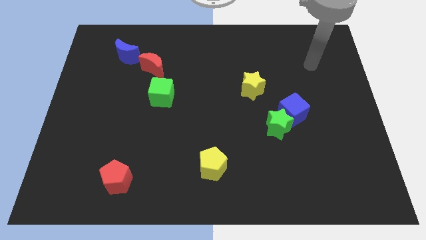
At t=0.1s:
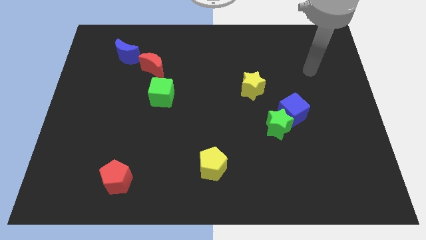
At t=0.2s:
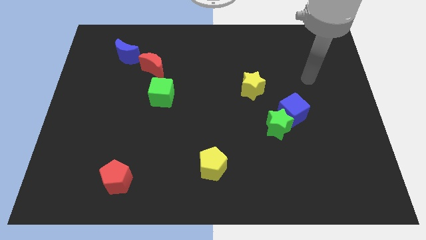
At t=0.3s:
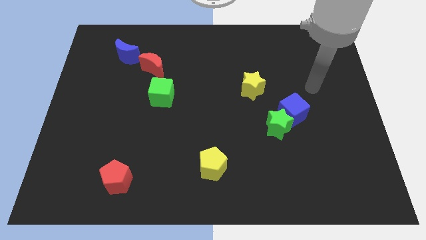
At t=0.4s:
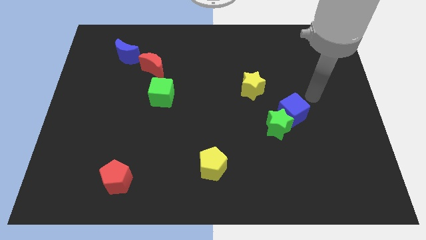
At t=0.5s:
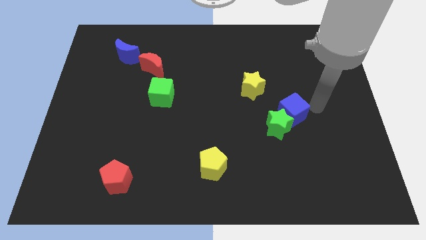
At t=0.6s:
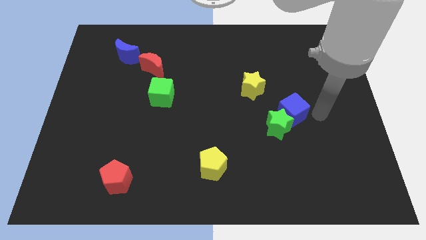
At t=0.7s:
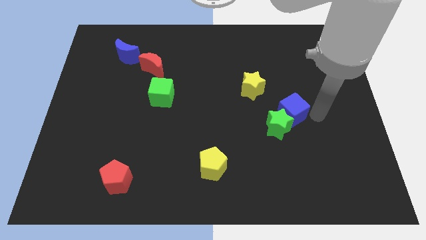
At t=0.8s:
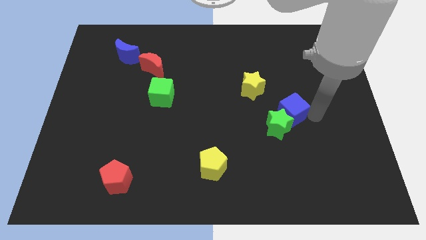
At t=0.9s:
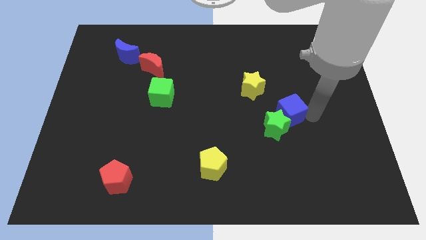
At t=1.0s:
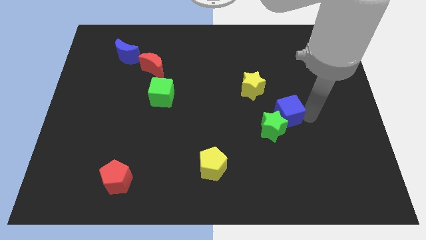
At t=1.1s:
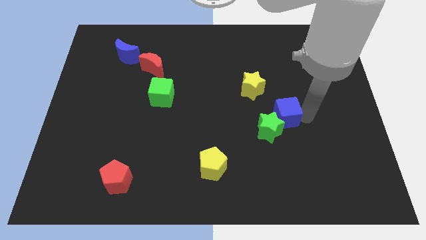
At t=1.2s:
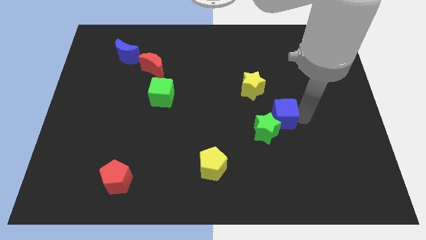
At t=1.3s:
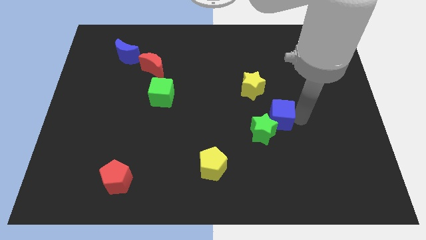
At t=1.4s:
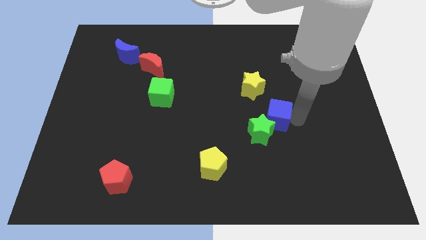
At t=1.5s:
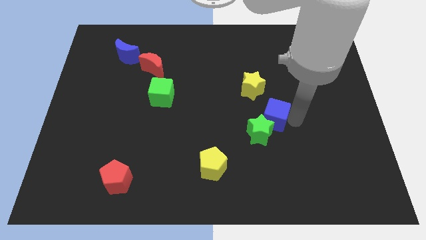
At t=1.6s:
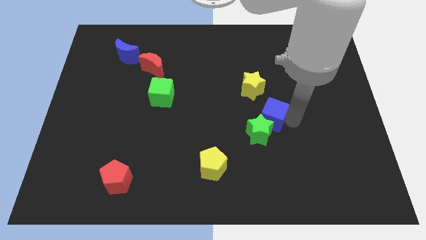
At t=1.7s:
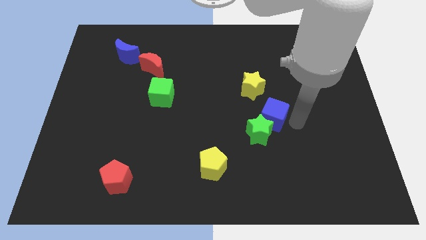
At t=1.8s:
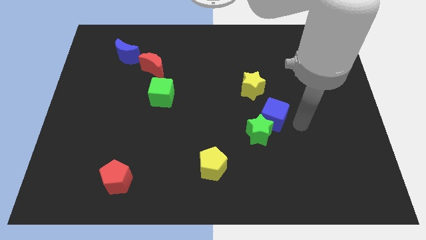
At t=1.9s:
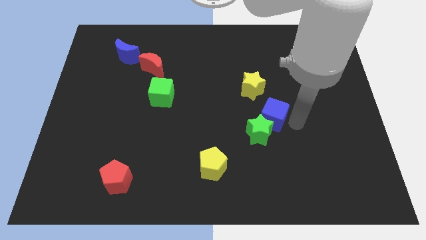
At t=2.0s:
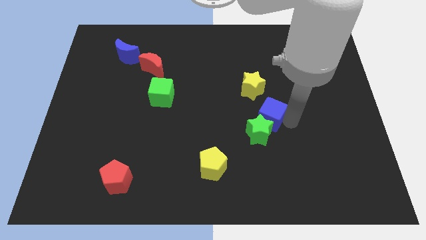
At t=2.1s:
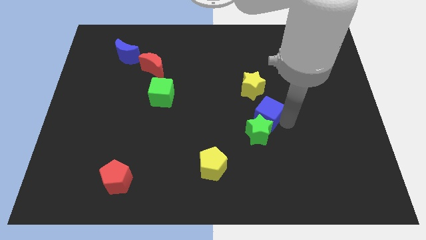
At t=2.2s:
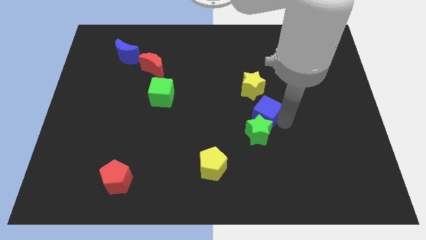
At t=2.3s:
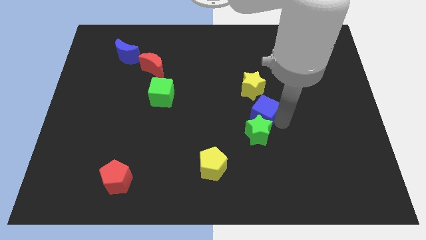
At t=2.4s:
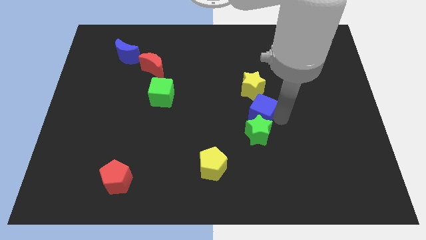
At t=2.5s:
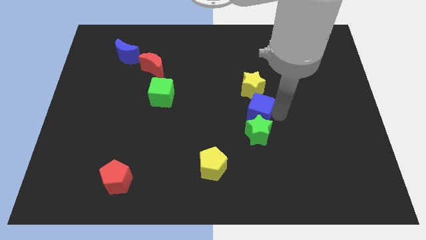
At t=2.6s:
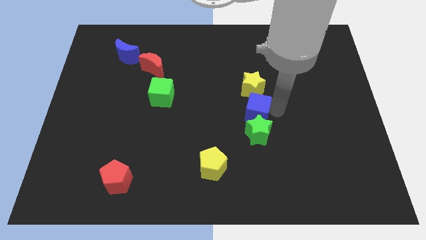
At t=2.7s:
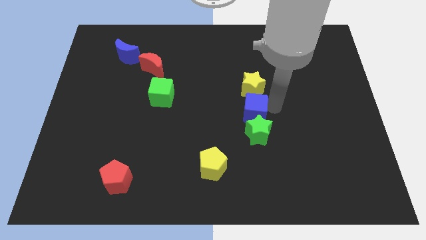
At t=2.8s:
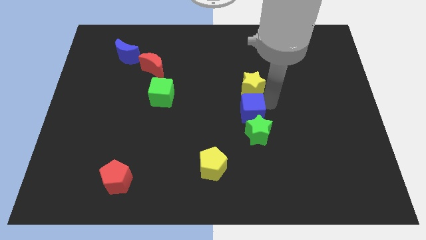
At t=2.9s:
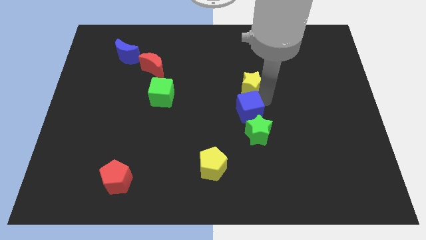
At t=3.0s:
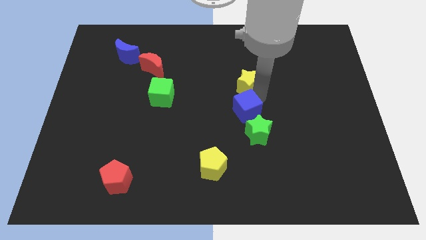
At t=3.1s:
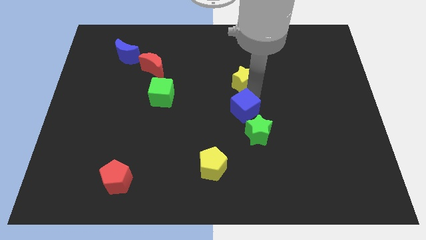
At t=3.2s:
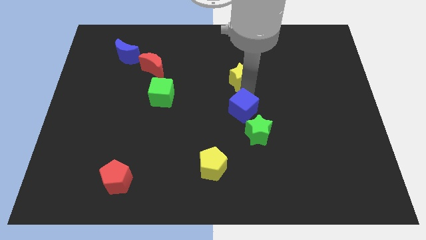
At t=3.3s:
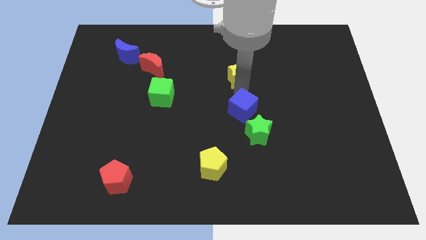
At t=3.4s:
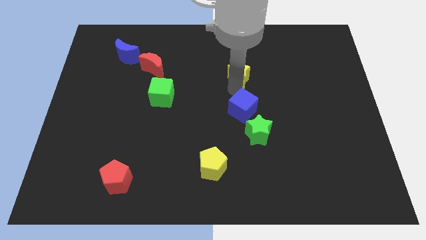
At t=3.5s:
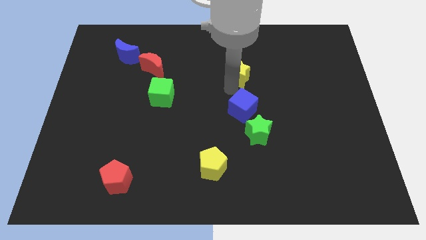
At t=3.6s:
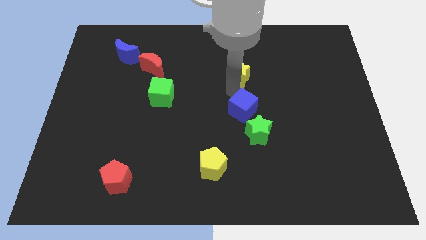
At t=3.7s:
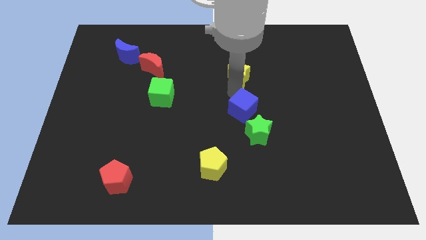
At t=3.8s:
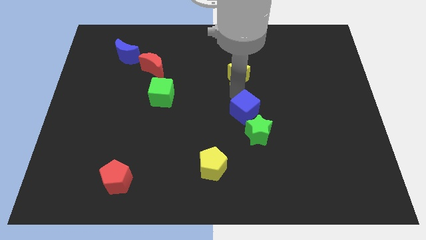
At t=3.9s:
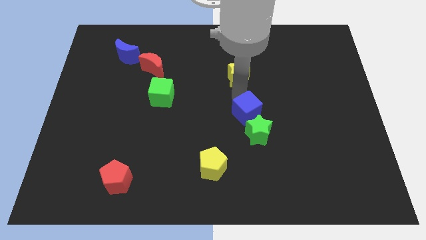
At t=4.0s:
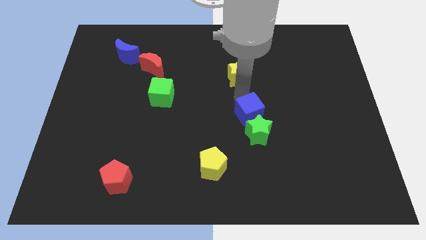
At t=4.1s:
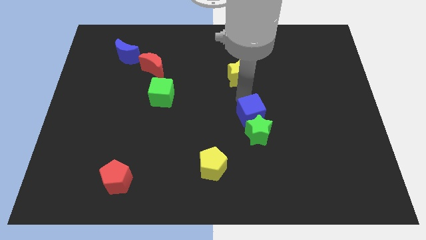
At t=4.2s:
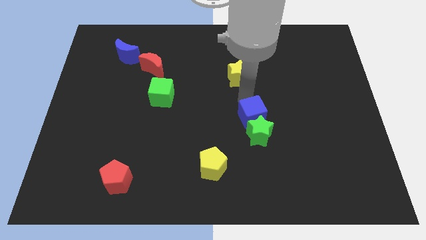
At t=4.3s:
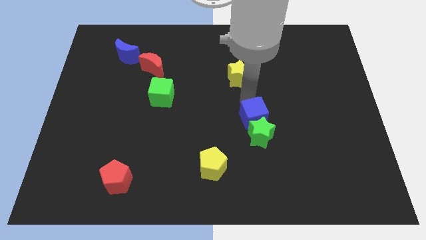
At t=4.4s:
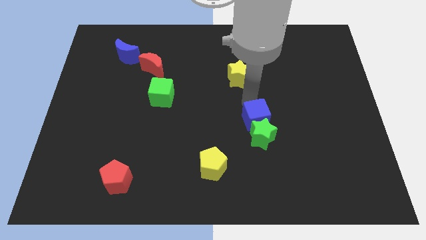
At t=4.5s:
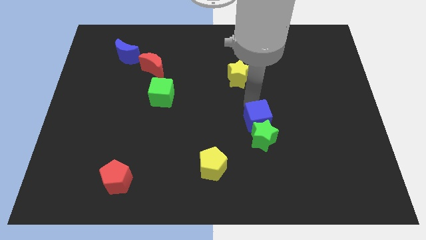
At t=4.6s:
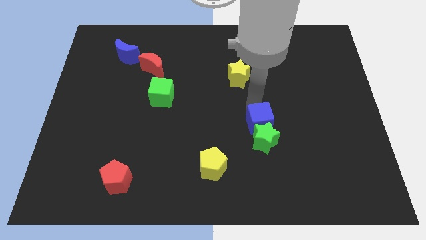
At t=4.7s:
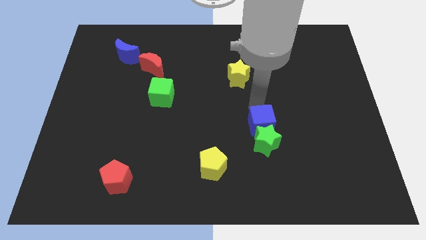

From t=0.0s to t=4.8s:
move the blue cube down and then left somewhat

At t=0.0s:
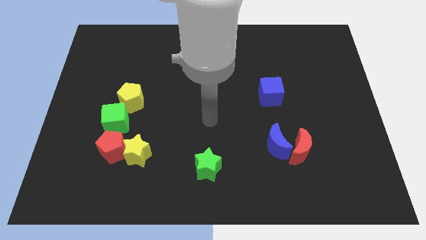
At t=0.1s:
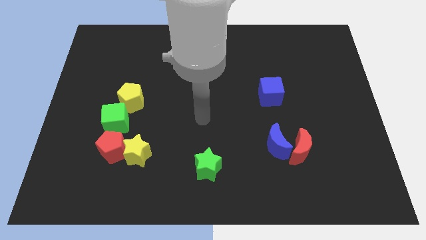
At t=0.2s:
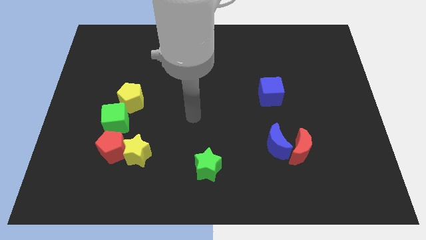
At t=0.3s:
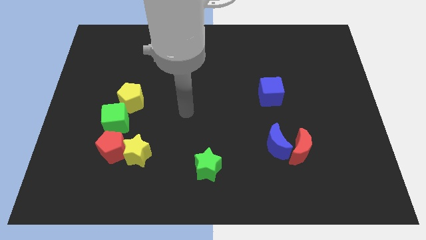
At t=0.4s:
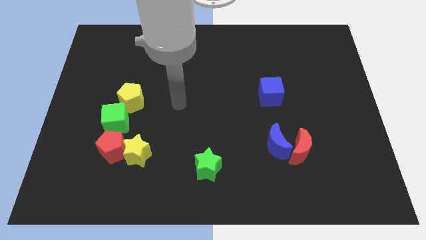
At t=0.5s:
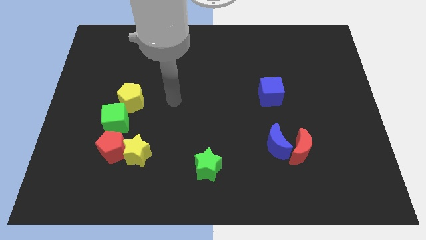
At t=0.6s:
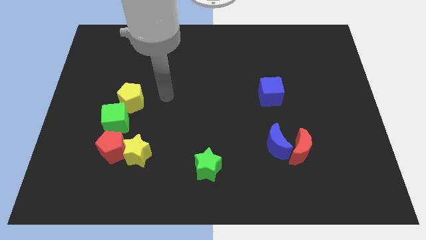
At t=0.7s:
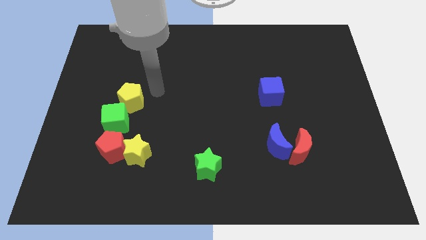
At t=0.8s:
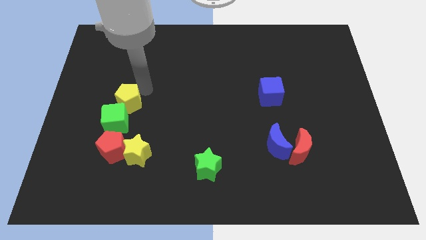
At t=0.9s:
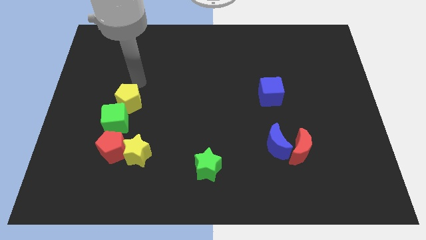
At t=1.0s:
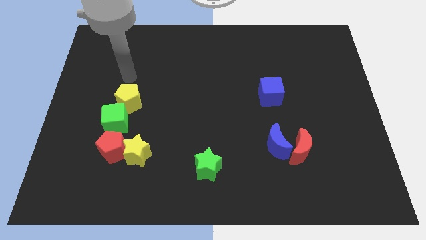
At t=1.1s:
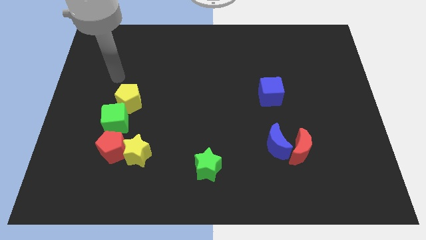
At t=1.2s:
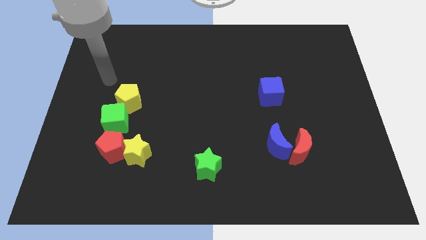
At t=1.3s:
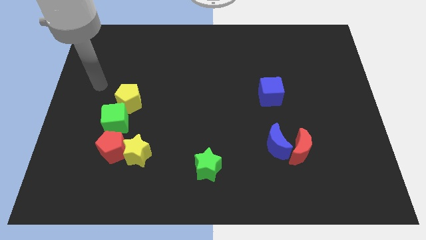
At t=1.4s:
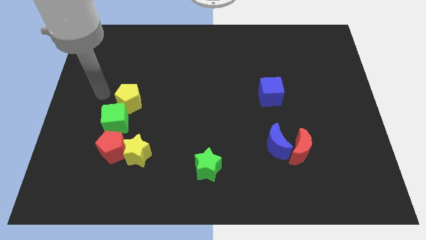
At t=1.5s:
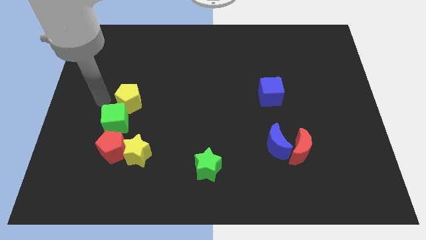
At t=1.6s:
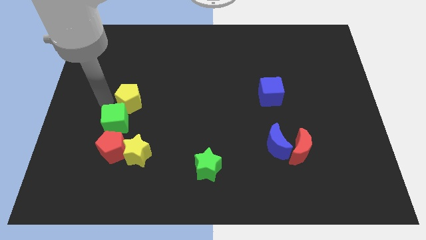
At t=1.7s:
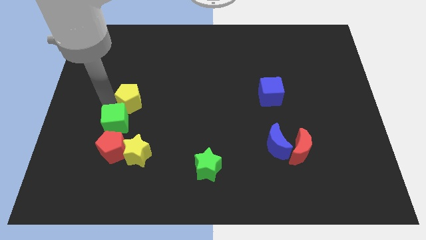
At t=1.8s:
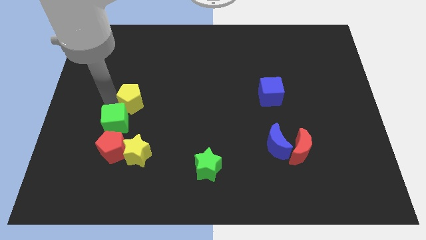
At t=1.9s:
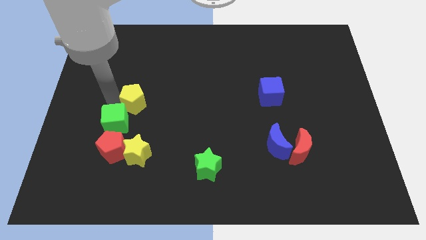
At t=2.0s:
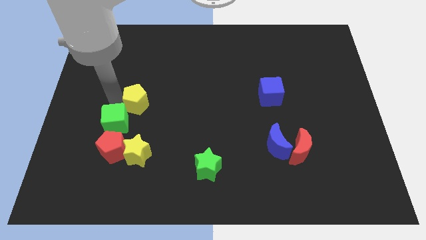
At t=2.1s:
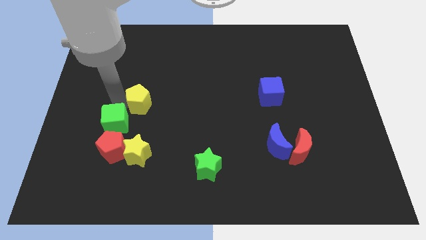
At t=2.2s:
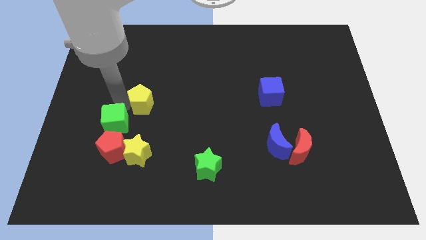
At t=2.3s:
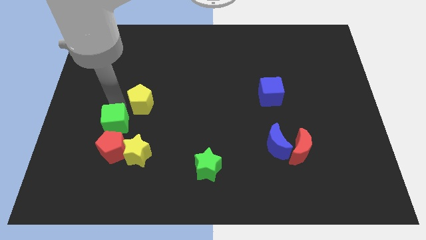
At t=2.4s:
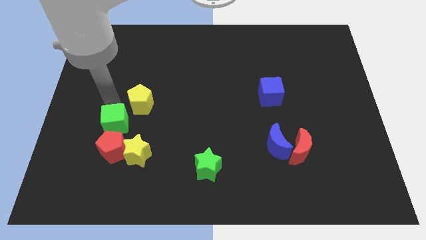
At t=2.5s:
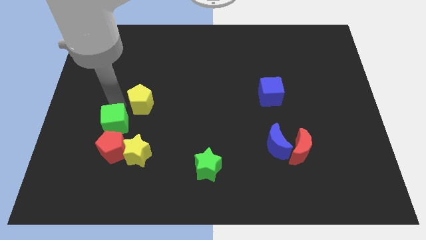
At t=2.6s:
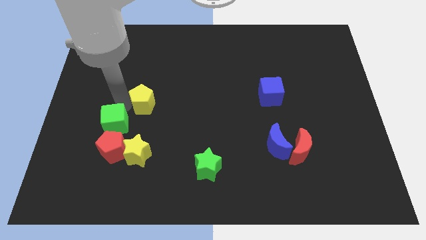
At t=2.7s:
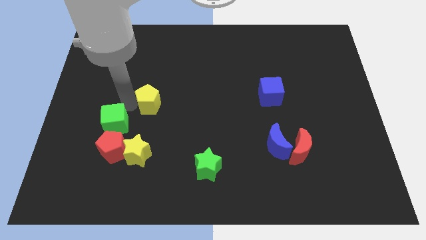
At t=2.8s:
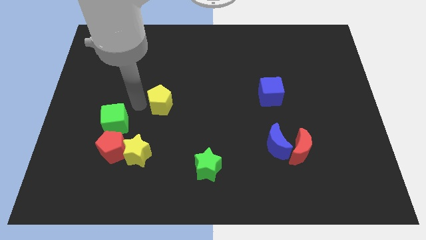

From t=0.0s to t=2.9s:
slide the yellow pentagon somewhat to the right

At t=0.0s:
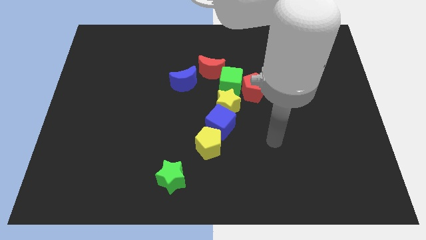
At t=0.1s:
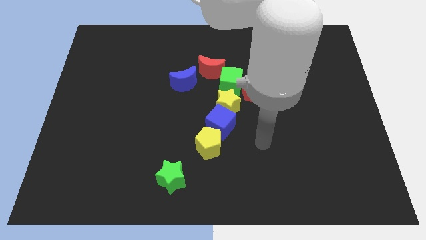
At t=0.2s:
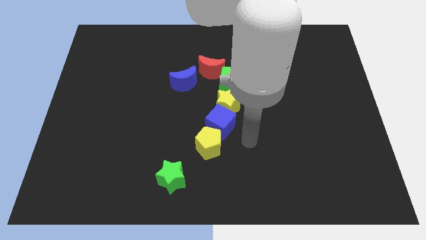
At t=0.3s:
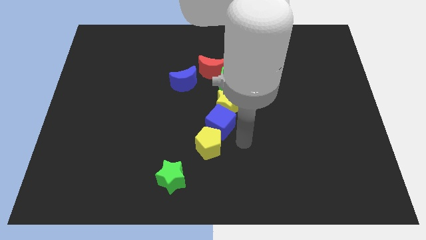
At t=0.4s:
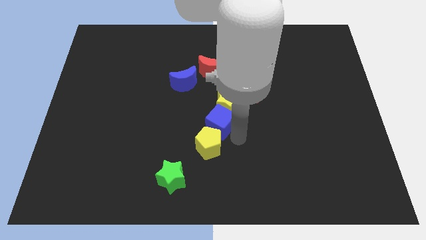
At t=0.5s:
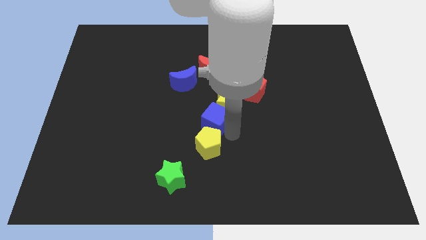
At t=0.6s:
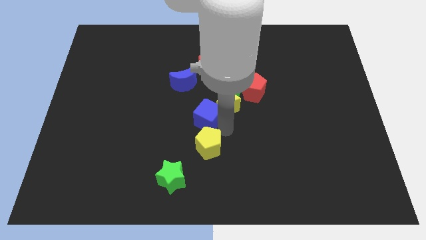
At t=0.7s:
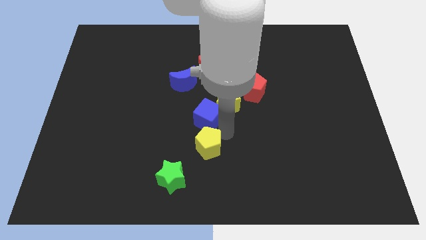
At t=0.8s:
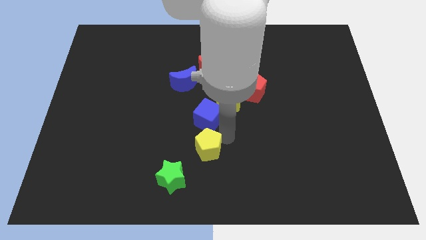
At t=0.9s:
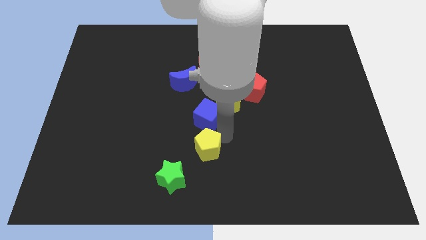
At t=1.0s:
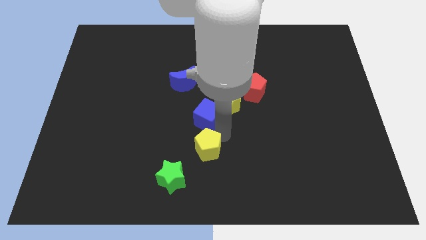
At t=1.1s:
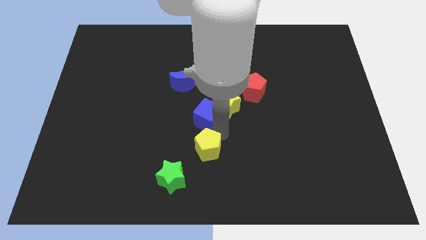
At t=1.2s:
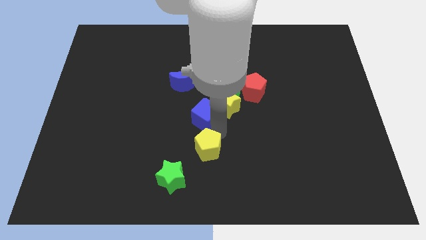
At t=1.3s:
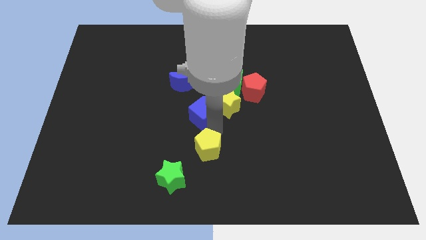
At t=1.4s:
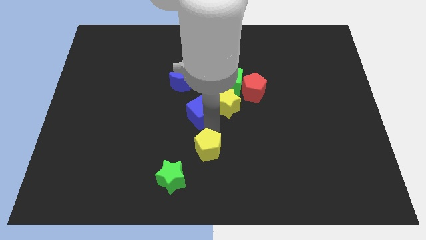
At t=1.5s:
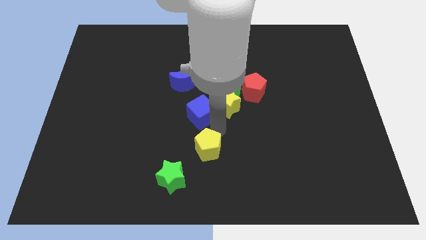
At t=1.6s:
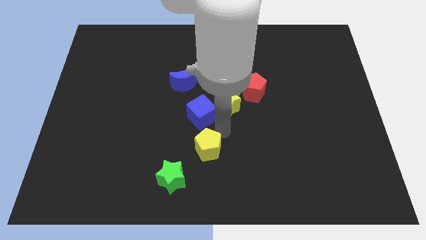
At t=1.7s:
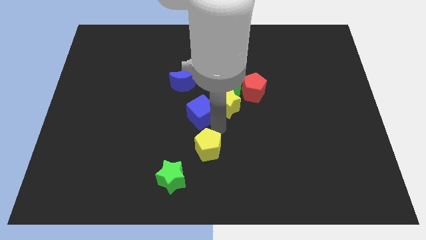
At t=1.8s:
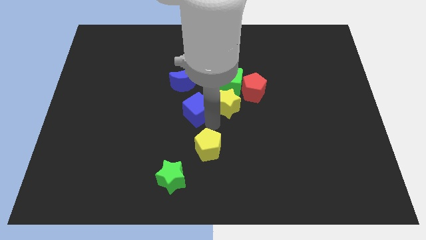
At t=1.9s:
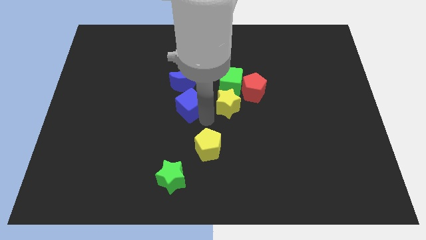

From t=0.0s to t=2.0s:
slide the blue cube a little upwards and then left
